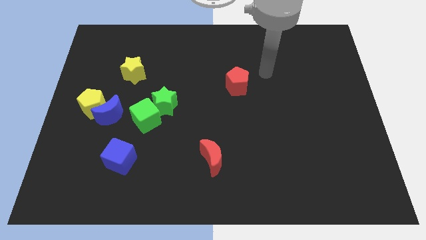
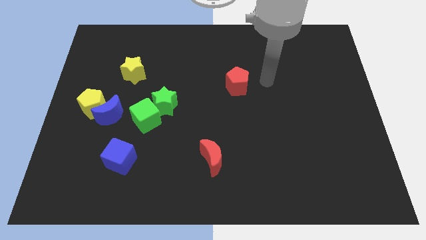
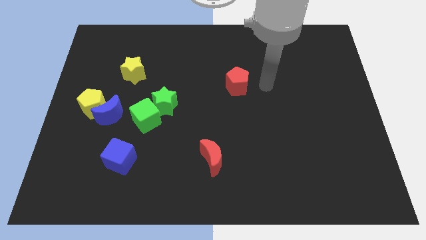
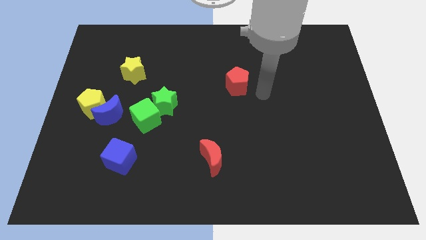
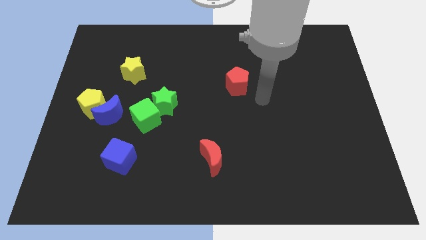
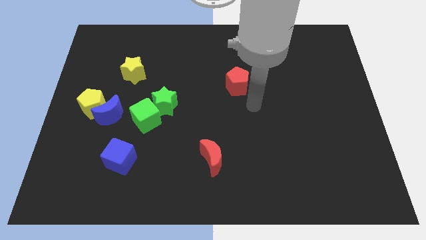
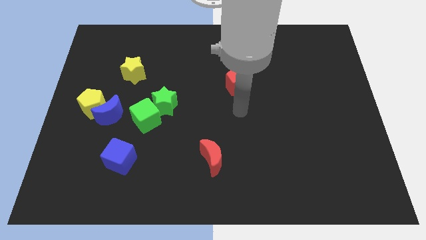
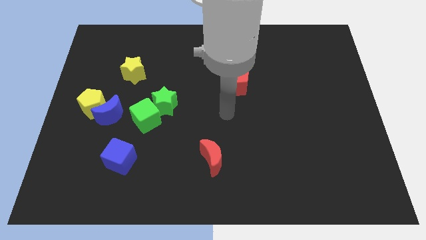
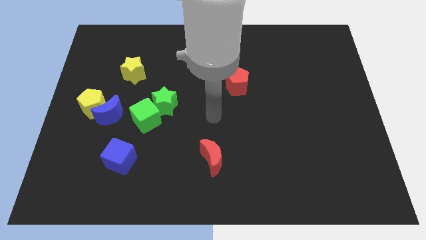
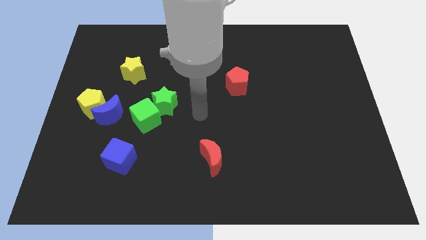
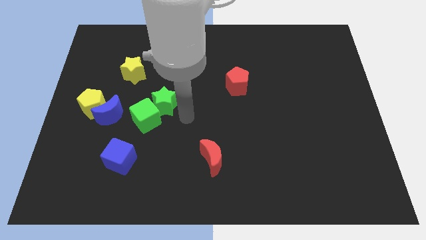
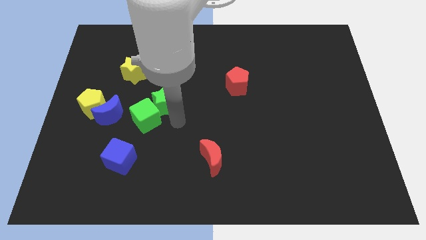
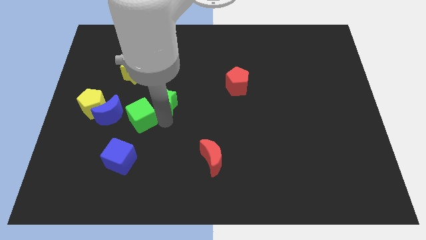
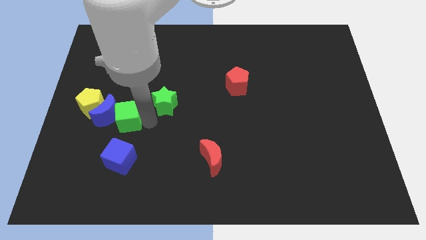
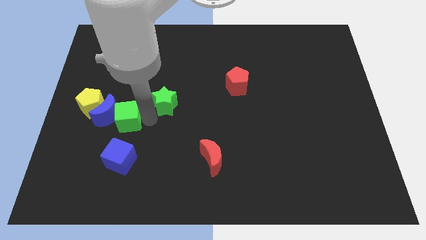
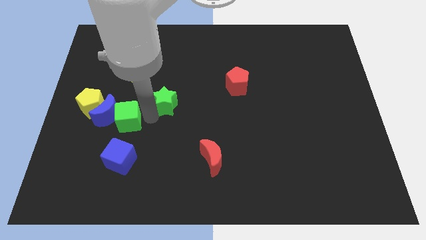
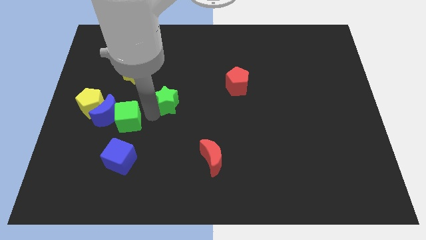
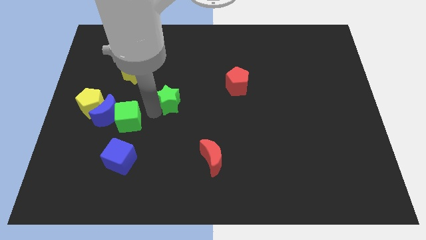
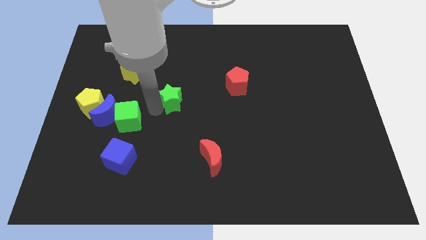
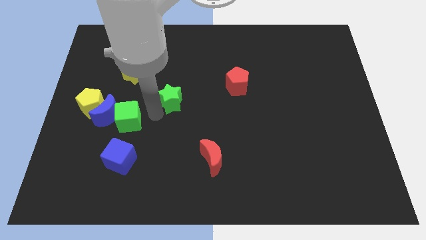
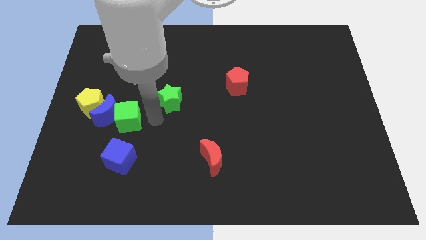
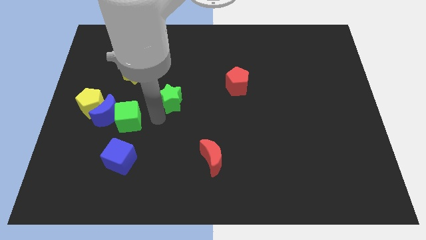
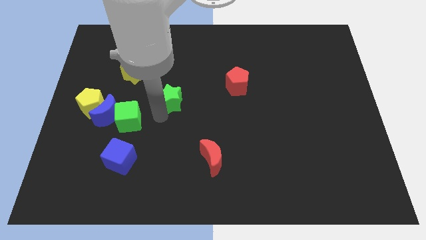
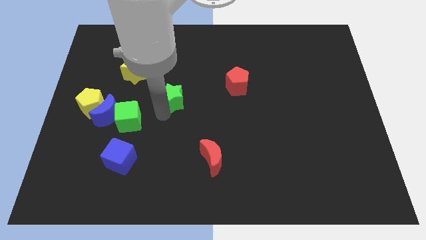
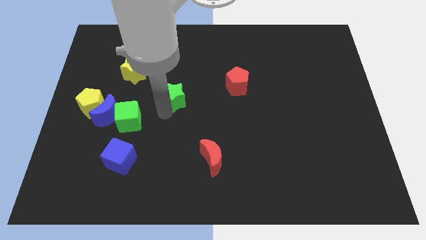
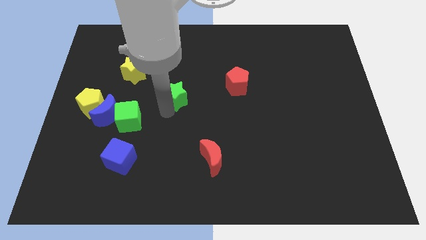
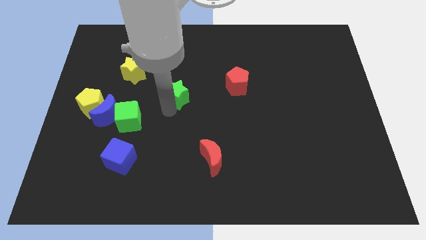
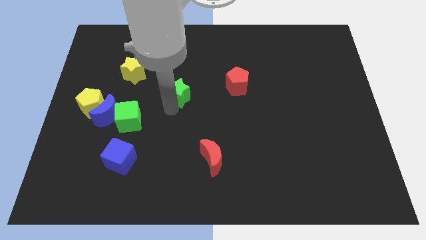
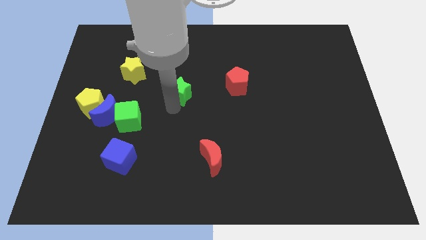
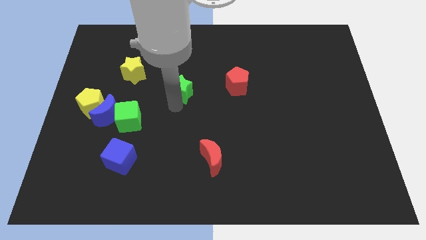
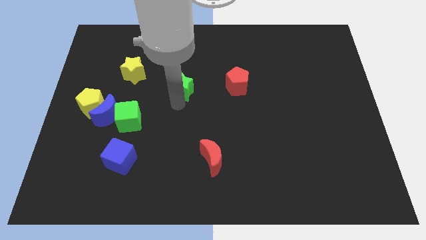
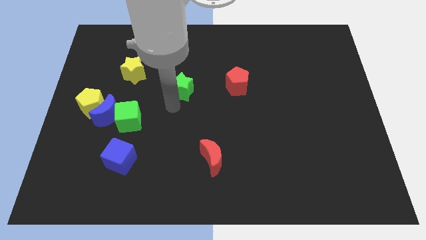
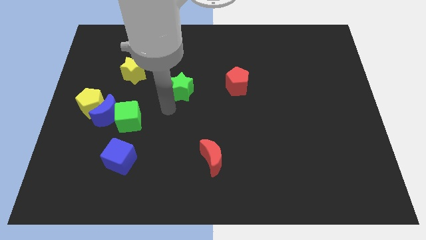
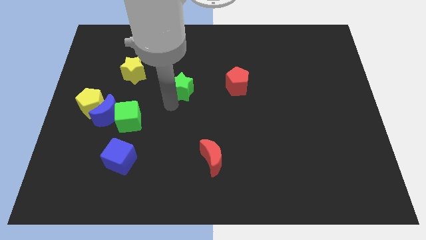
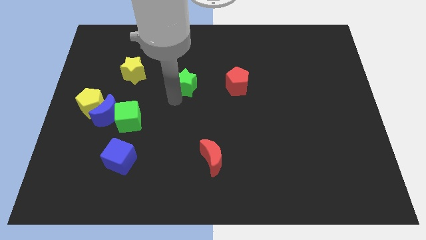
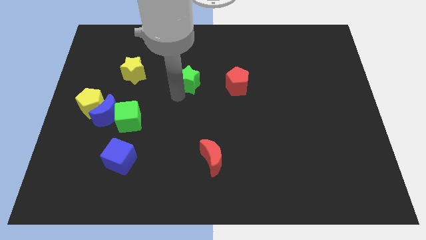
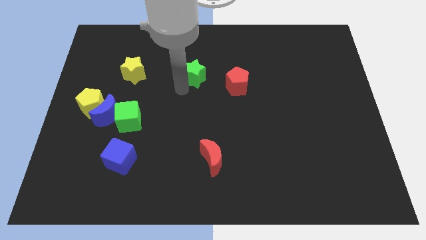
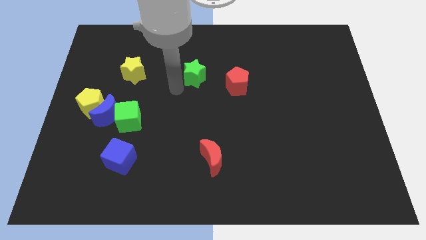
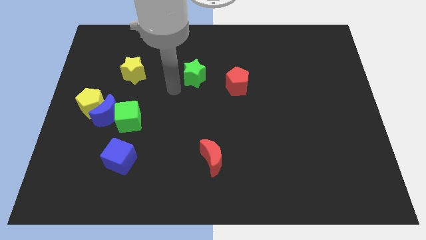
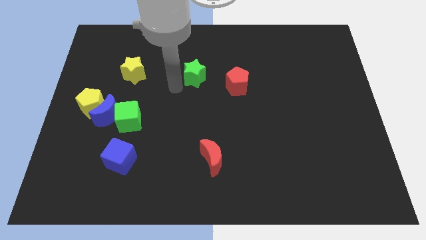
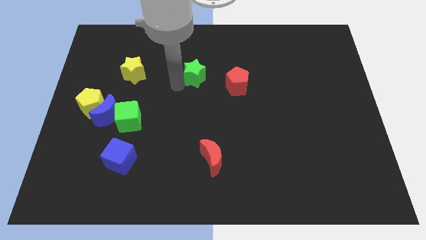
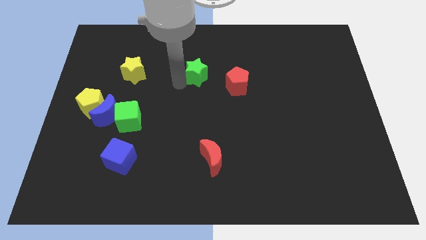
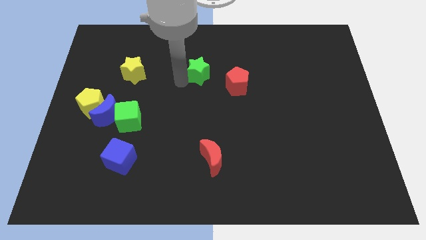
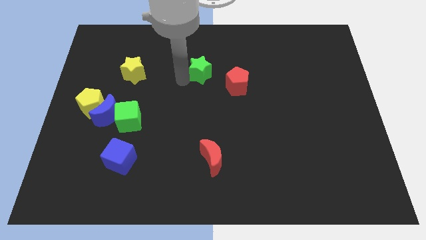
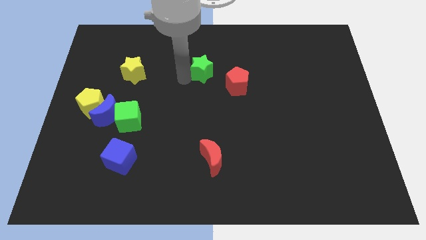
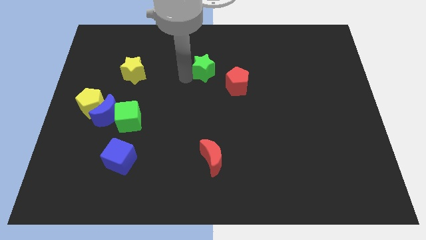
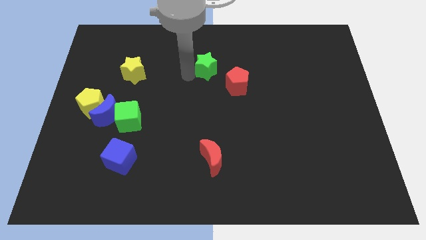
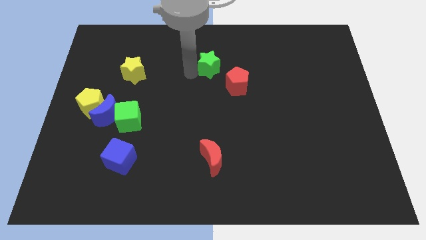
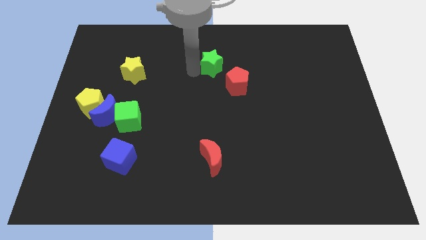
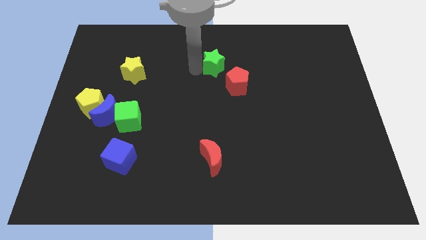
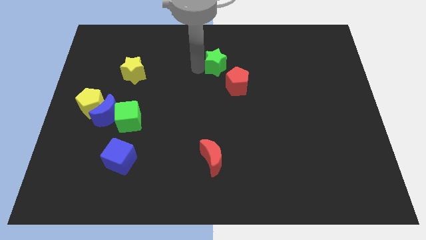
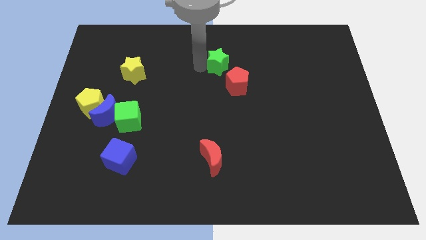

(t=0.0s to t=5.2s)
push the green star to the top side of the red pentagon
